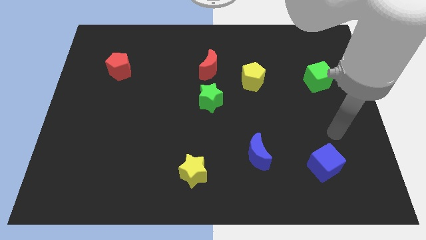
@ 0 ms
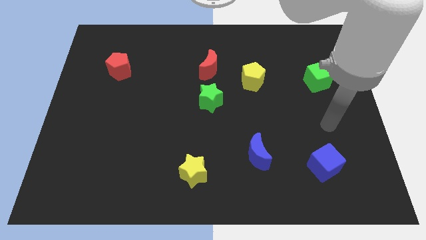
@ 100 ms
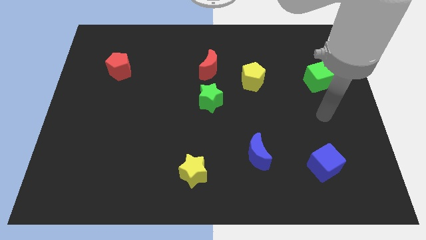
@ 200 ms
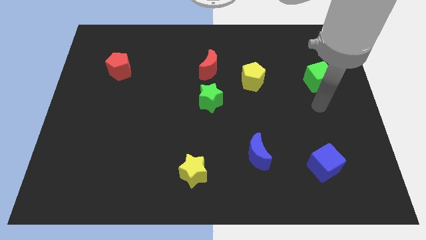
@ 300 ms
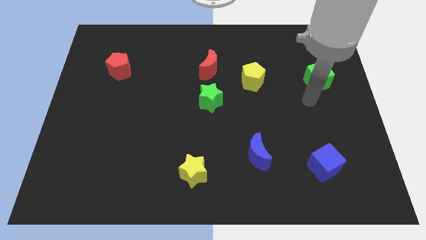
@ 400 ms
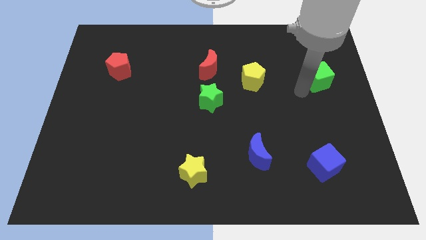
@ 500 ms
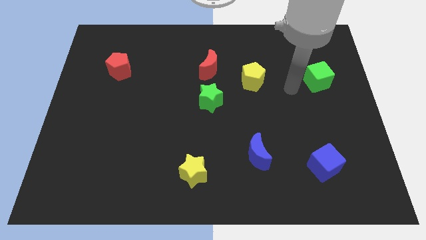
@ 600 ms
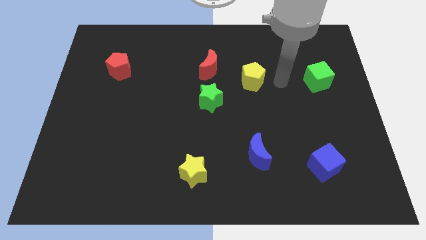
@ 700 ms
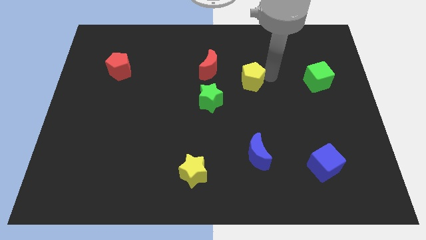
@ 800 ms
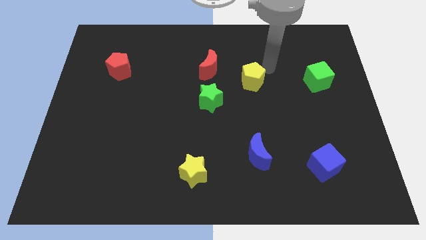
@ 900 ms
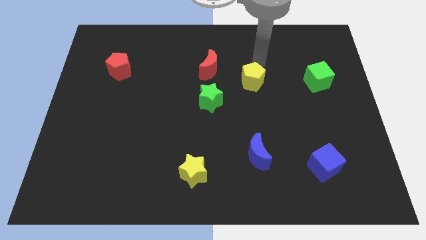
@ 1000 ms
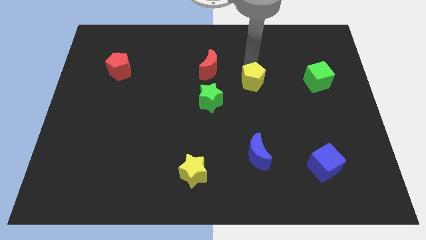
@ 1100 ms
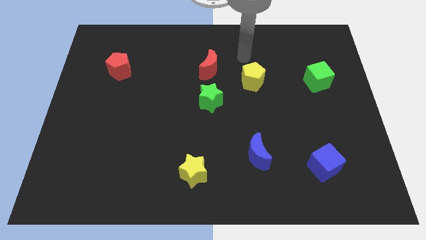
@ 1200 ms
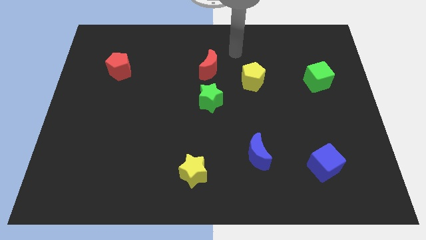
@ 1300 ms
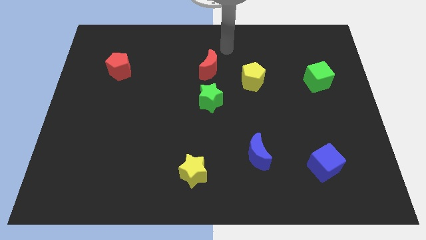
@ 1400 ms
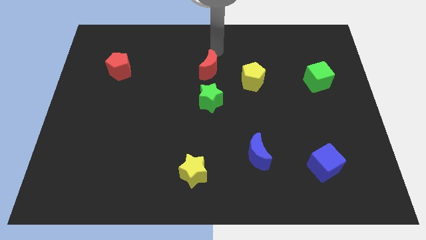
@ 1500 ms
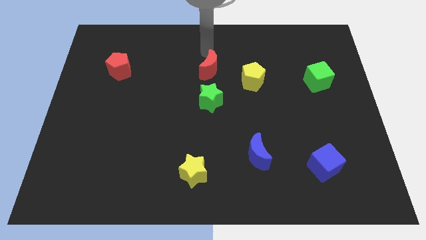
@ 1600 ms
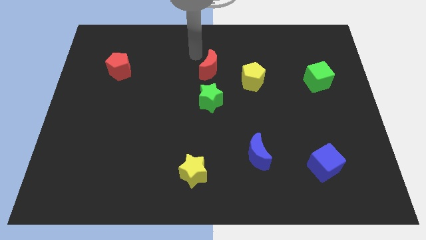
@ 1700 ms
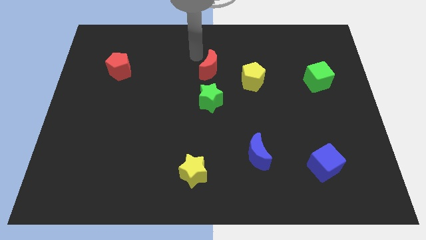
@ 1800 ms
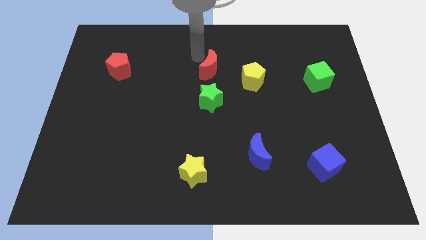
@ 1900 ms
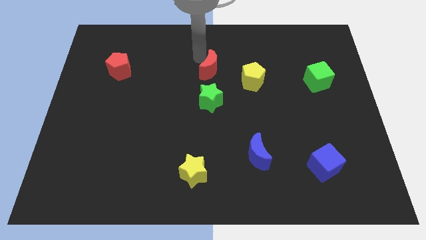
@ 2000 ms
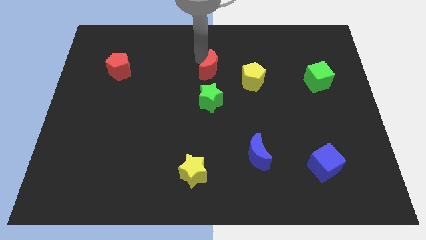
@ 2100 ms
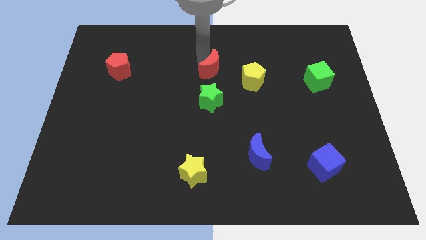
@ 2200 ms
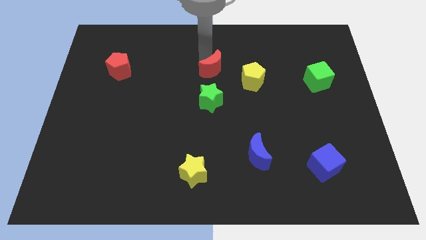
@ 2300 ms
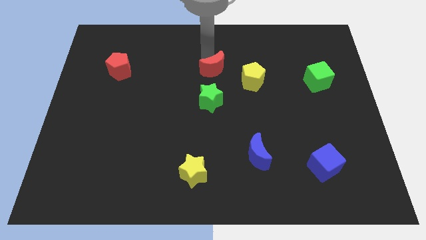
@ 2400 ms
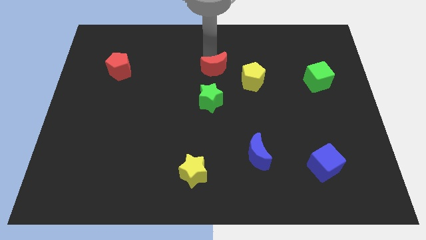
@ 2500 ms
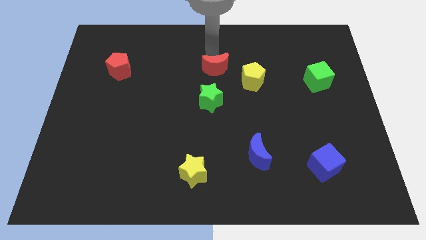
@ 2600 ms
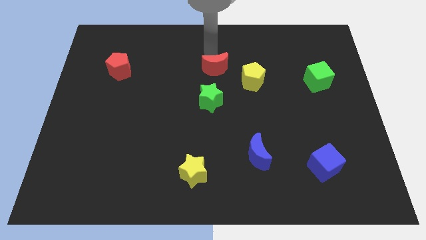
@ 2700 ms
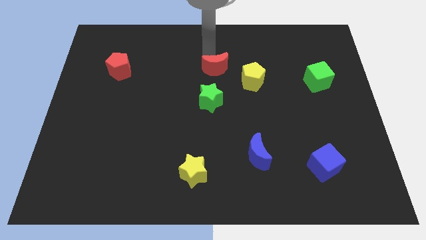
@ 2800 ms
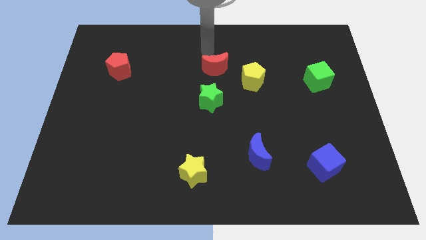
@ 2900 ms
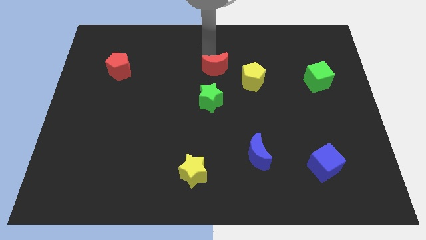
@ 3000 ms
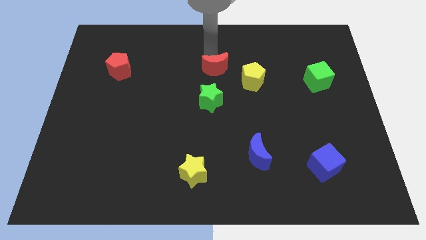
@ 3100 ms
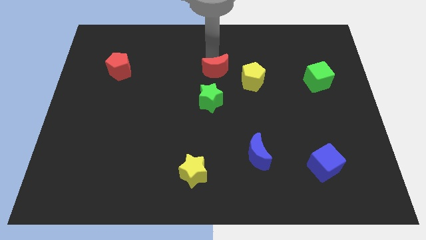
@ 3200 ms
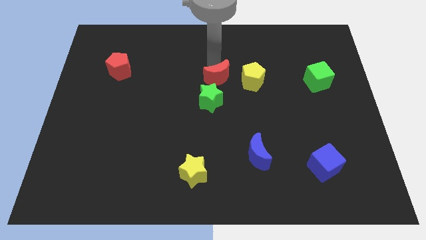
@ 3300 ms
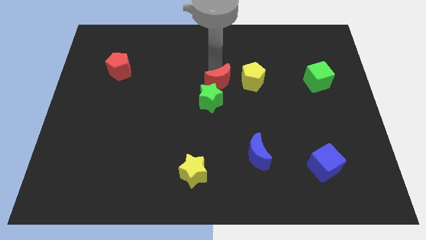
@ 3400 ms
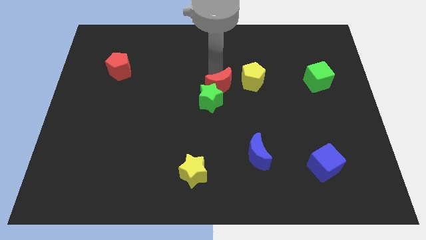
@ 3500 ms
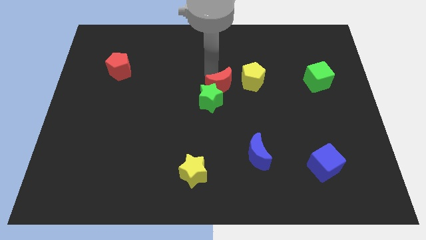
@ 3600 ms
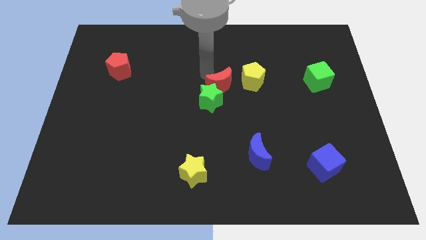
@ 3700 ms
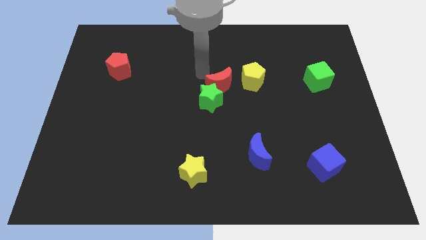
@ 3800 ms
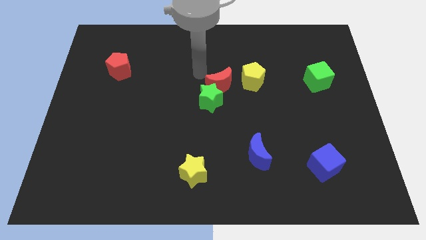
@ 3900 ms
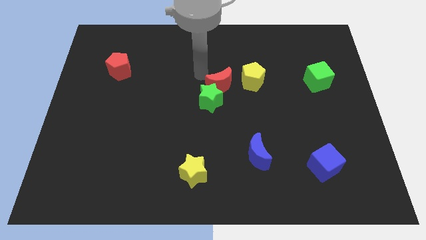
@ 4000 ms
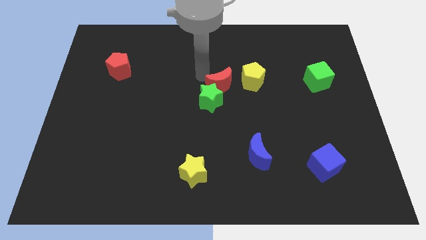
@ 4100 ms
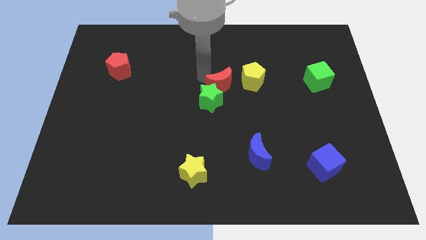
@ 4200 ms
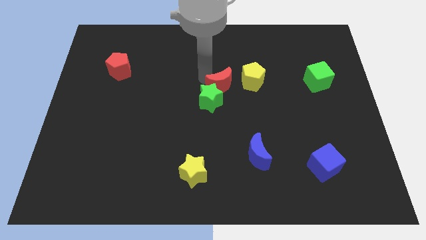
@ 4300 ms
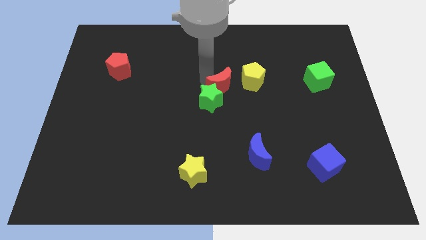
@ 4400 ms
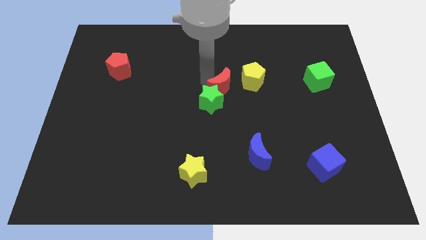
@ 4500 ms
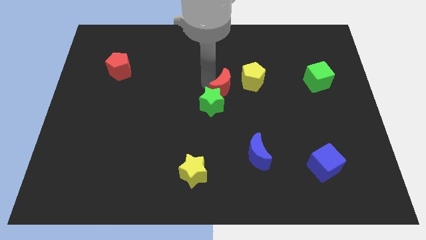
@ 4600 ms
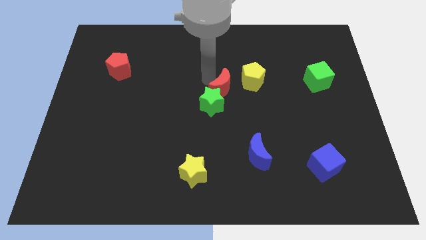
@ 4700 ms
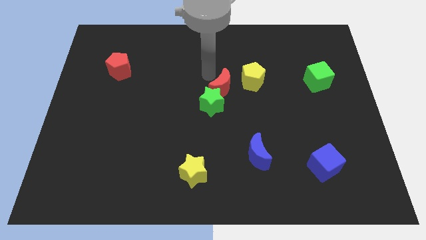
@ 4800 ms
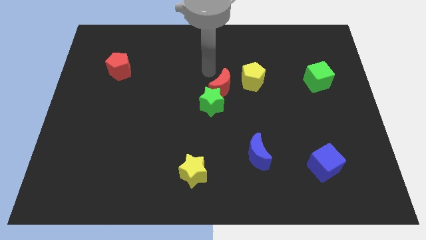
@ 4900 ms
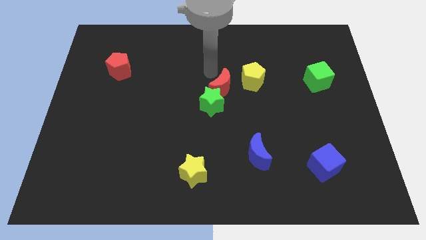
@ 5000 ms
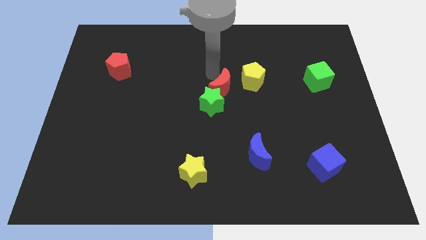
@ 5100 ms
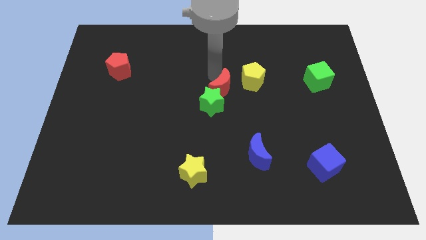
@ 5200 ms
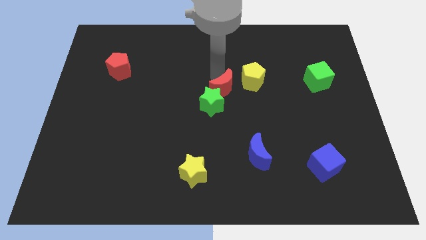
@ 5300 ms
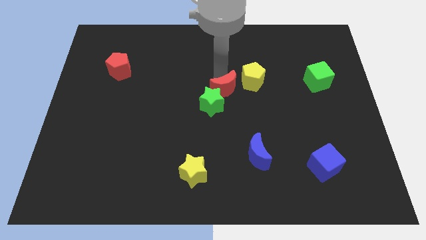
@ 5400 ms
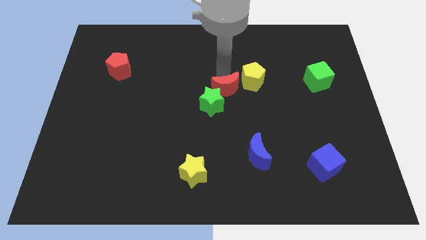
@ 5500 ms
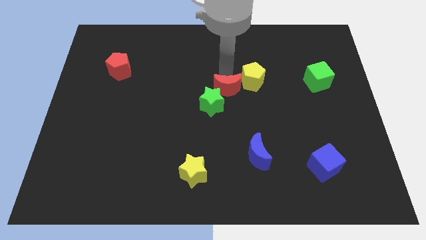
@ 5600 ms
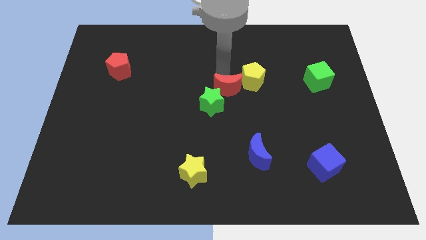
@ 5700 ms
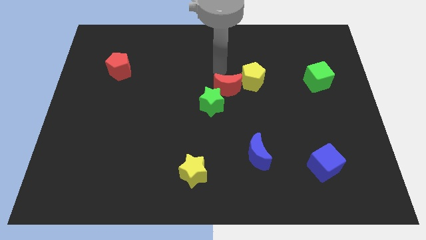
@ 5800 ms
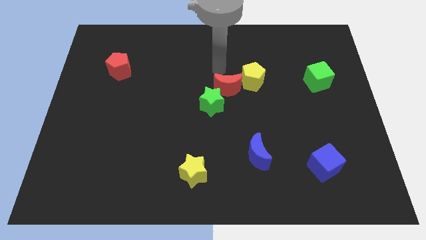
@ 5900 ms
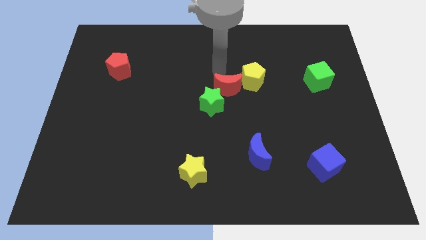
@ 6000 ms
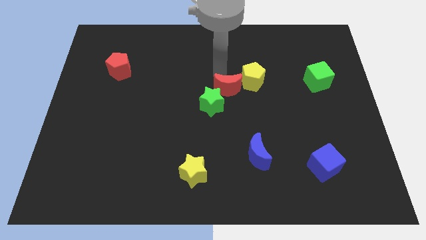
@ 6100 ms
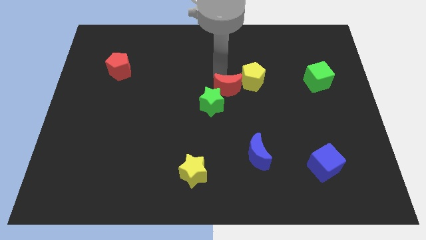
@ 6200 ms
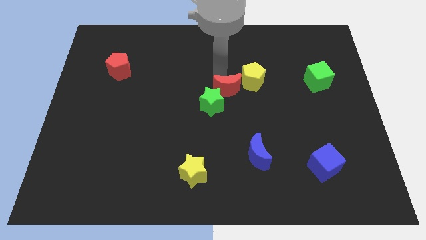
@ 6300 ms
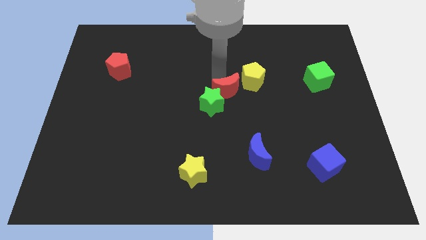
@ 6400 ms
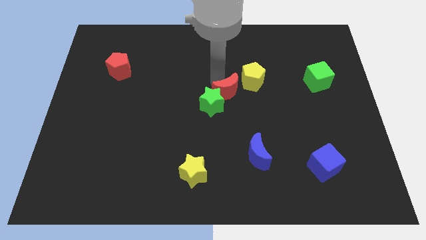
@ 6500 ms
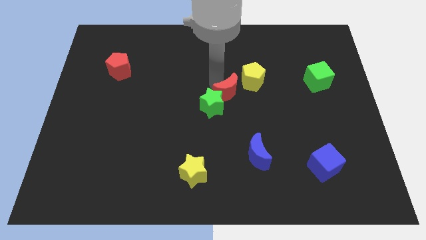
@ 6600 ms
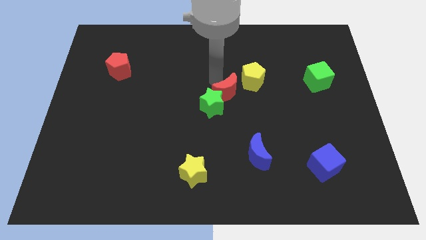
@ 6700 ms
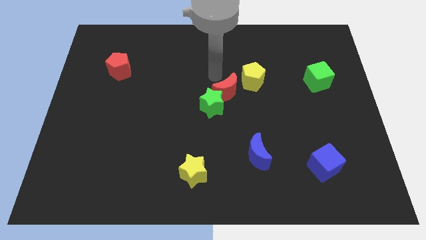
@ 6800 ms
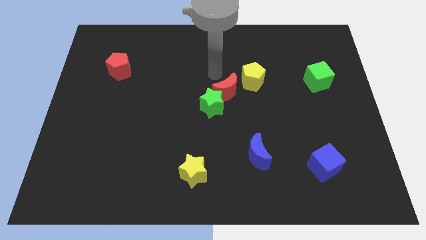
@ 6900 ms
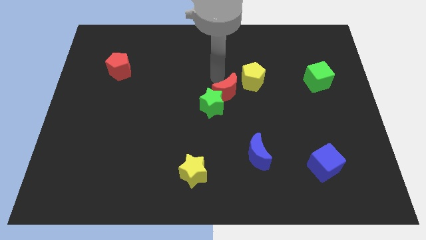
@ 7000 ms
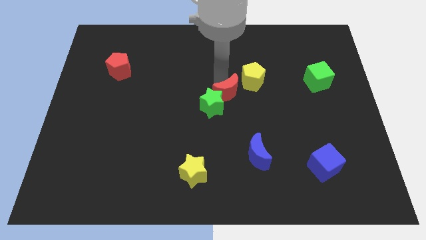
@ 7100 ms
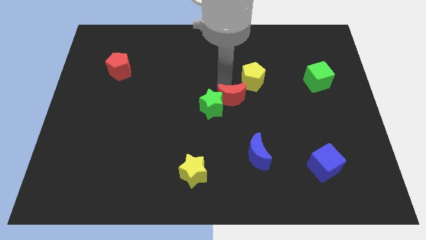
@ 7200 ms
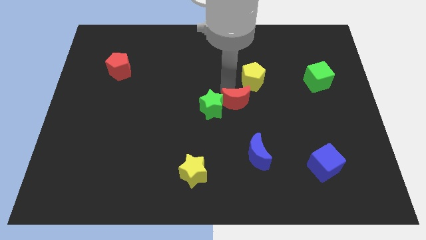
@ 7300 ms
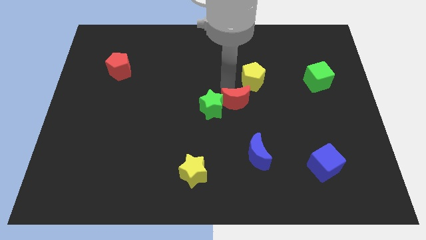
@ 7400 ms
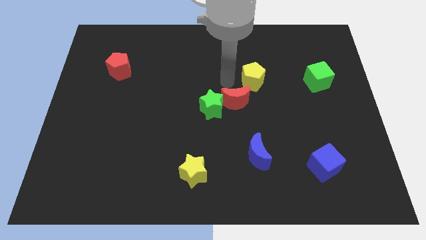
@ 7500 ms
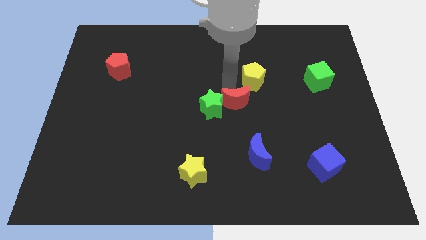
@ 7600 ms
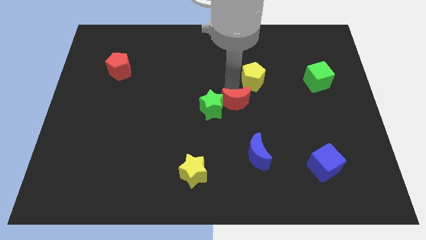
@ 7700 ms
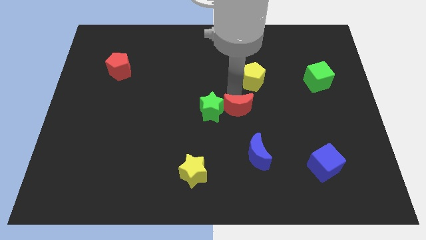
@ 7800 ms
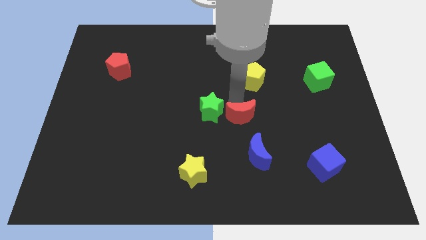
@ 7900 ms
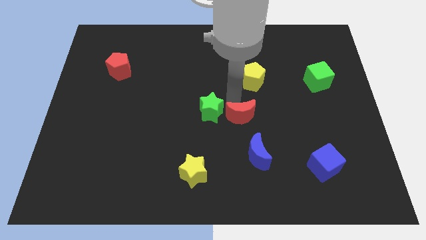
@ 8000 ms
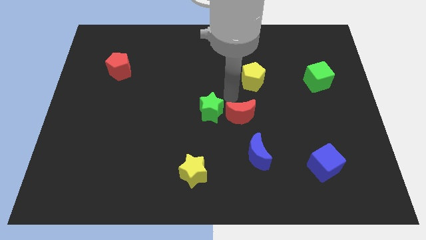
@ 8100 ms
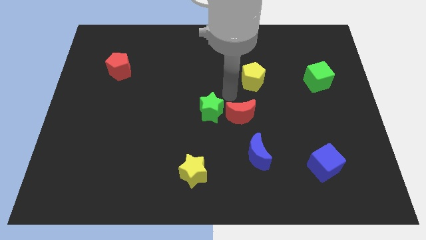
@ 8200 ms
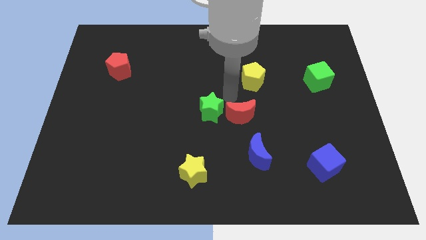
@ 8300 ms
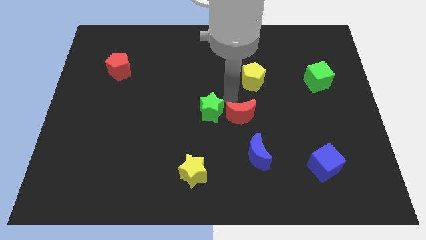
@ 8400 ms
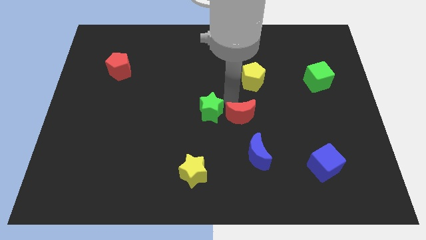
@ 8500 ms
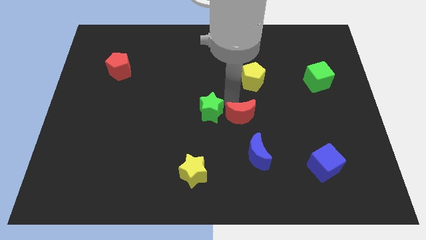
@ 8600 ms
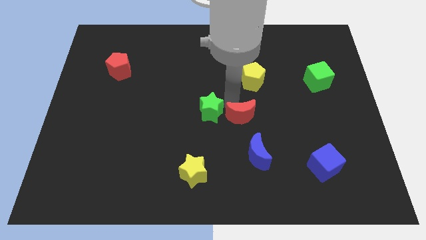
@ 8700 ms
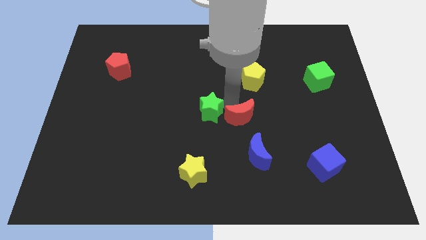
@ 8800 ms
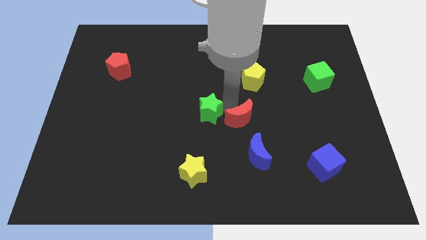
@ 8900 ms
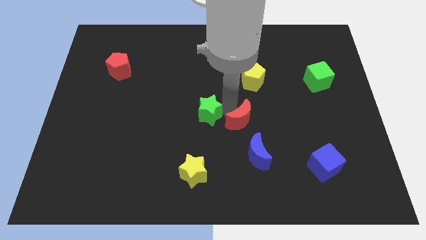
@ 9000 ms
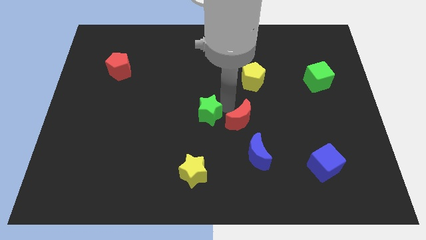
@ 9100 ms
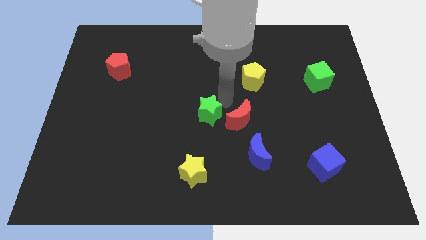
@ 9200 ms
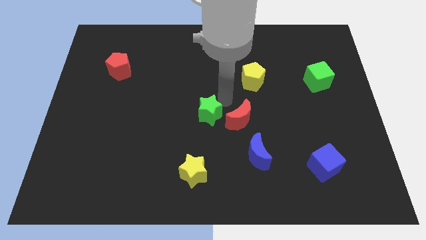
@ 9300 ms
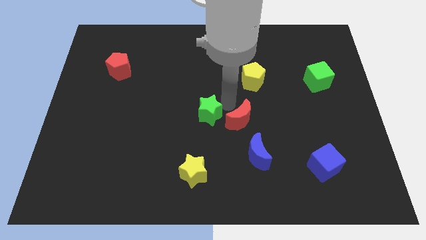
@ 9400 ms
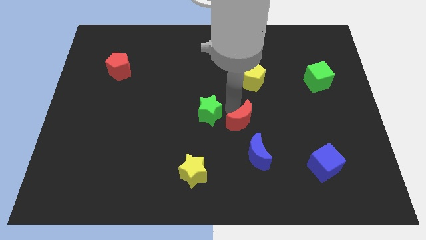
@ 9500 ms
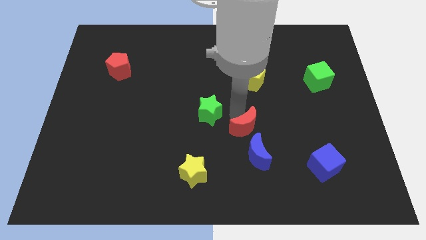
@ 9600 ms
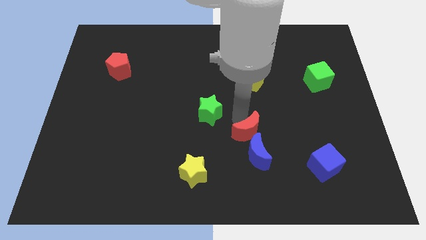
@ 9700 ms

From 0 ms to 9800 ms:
slide the red moon to the blue moon
